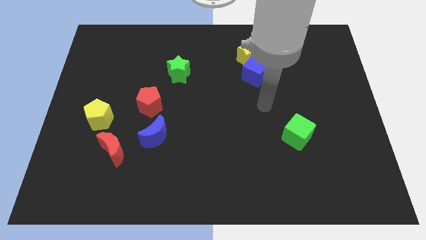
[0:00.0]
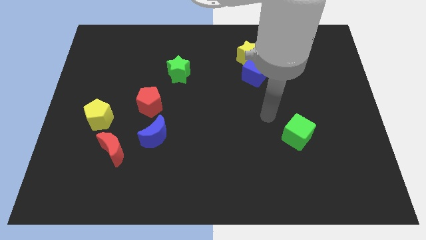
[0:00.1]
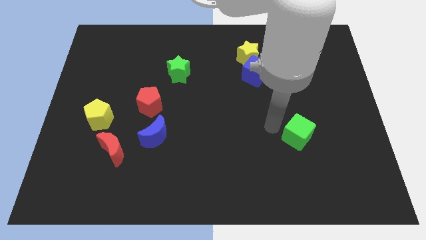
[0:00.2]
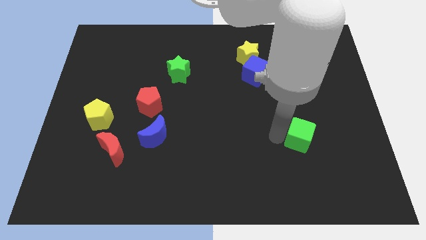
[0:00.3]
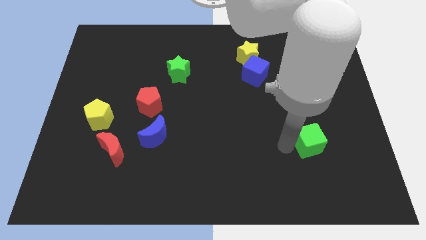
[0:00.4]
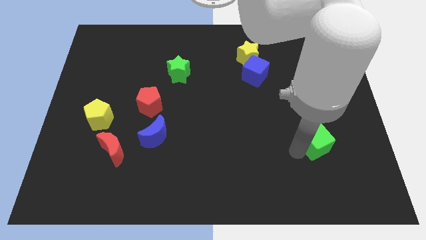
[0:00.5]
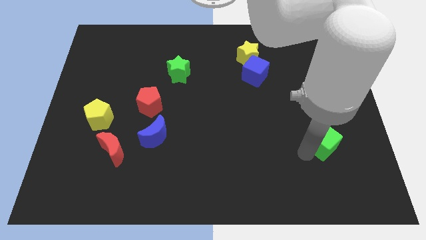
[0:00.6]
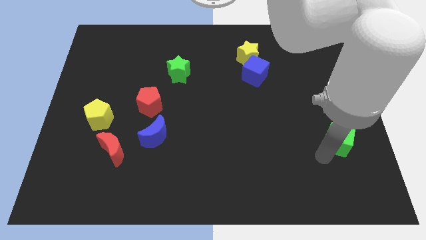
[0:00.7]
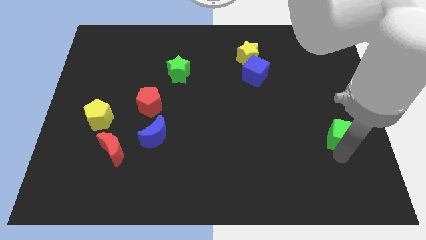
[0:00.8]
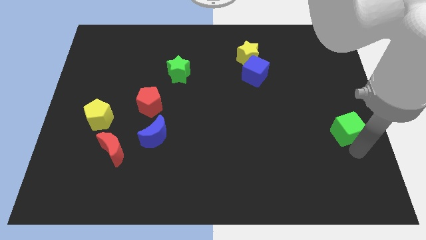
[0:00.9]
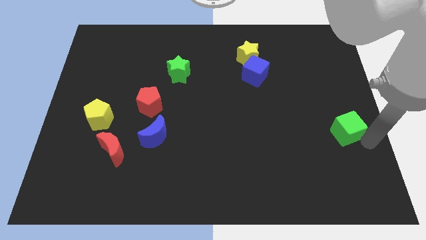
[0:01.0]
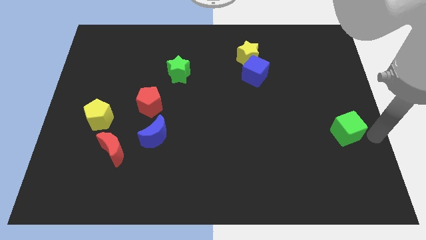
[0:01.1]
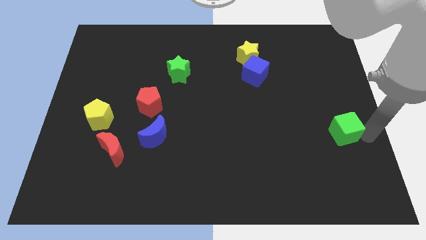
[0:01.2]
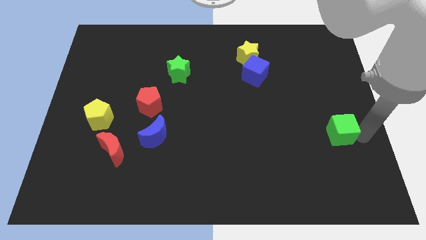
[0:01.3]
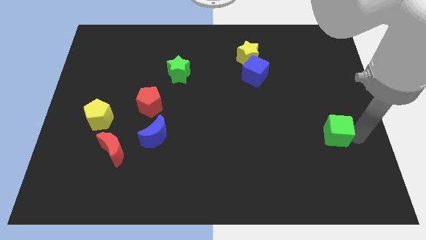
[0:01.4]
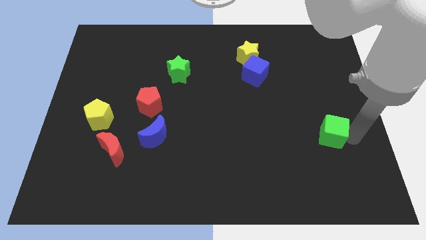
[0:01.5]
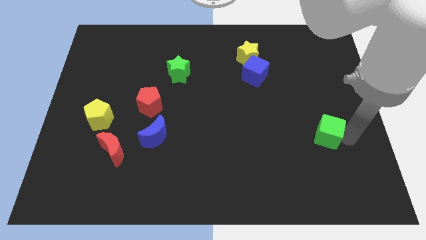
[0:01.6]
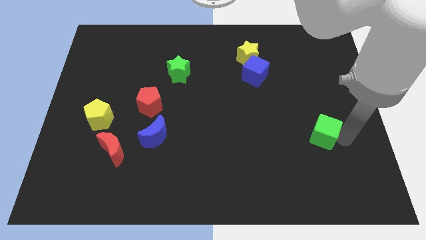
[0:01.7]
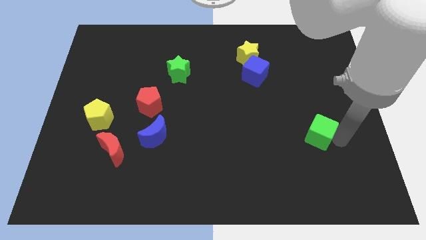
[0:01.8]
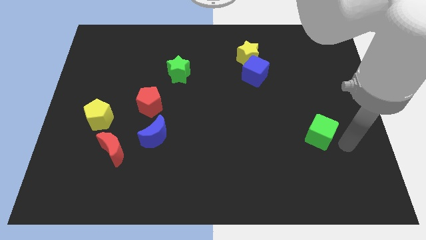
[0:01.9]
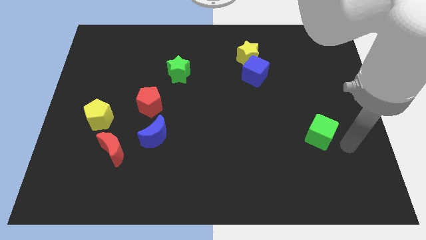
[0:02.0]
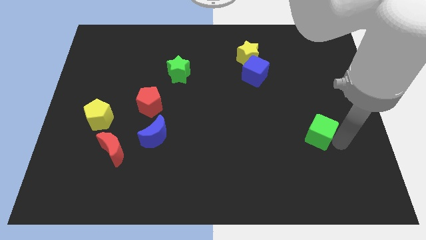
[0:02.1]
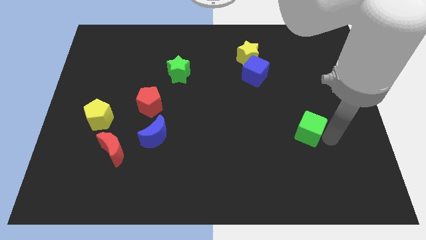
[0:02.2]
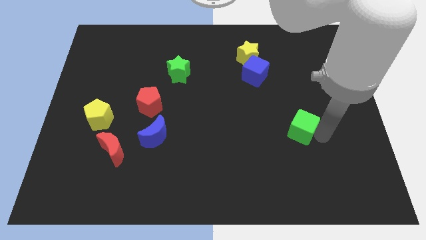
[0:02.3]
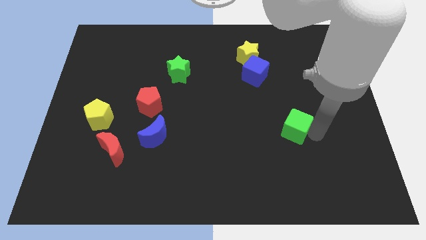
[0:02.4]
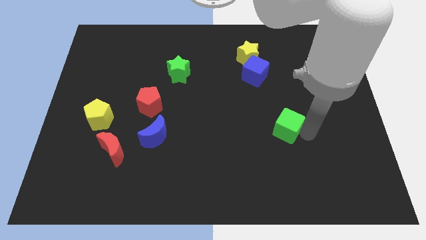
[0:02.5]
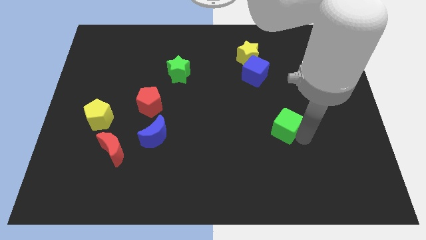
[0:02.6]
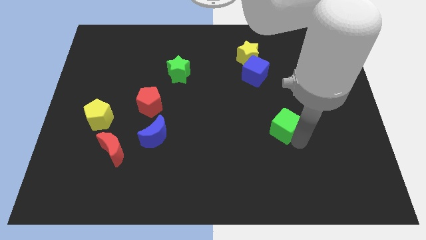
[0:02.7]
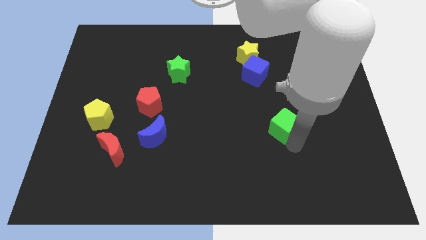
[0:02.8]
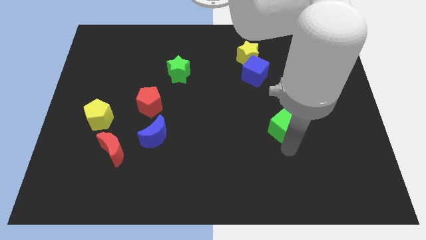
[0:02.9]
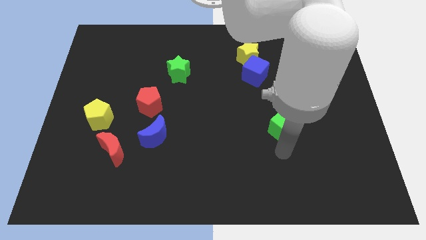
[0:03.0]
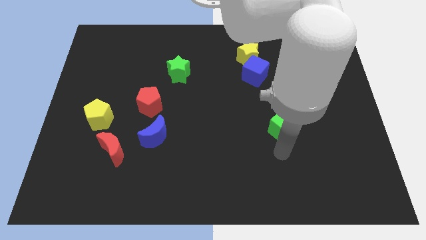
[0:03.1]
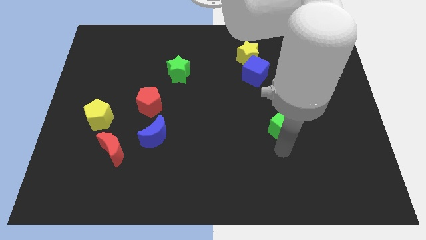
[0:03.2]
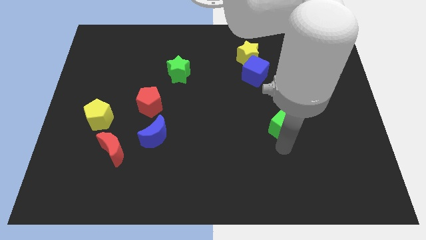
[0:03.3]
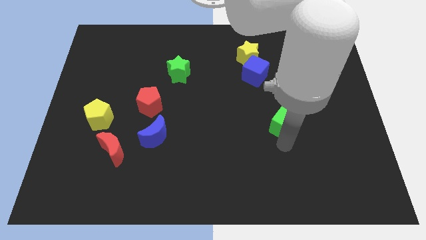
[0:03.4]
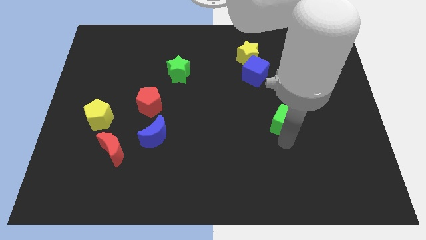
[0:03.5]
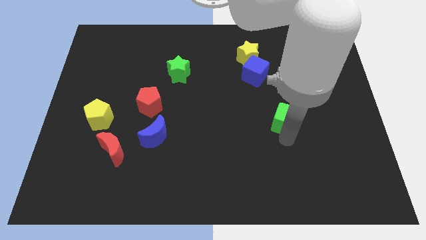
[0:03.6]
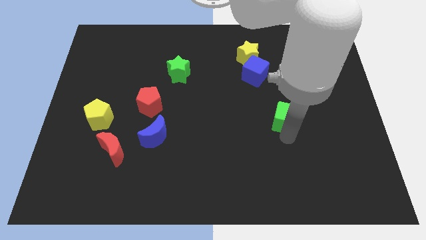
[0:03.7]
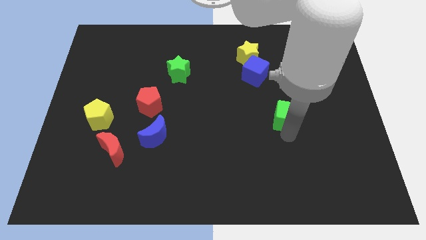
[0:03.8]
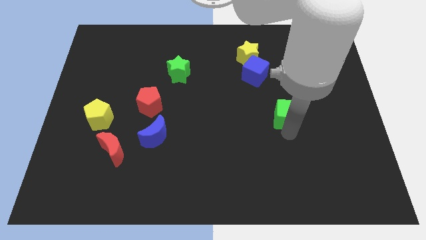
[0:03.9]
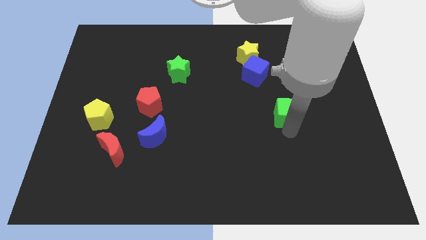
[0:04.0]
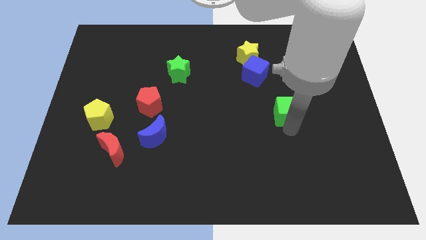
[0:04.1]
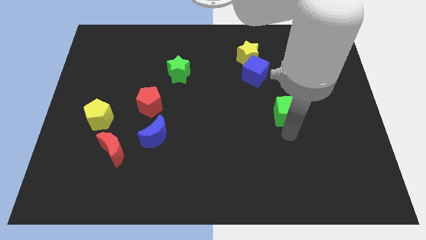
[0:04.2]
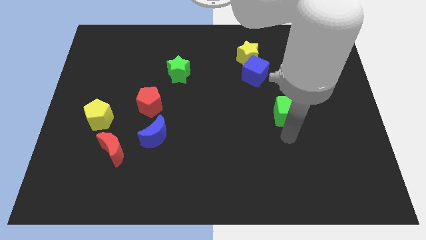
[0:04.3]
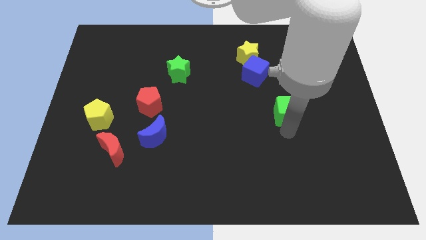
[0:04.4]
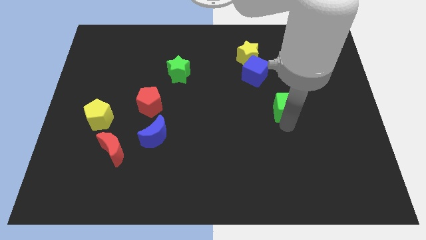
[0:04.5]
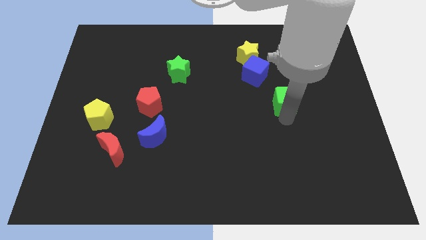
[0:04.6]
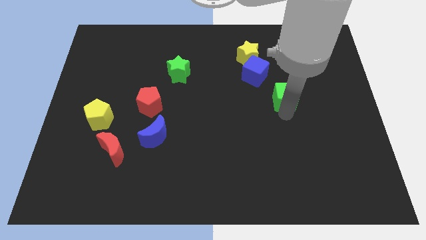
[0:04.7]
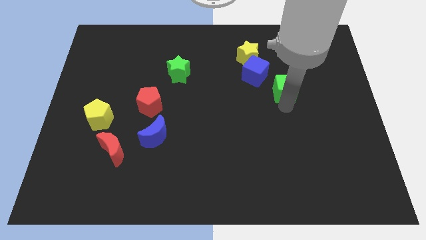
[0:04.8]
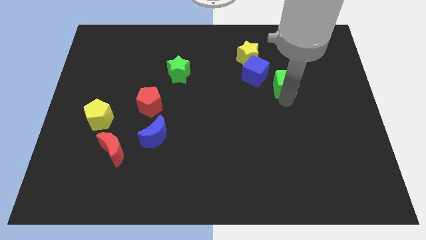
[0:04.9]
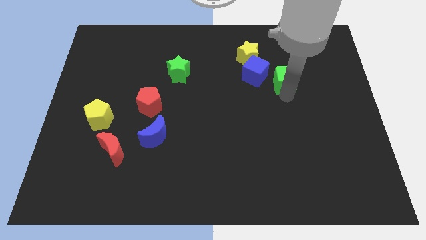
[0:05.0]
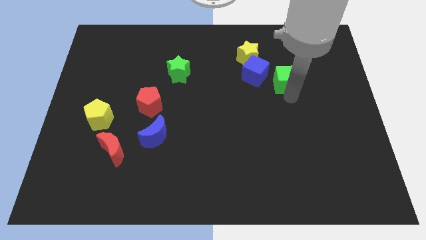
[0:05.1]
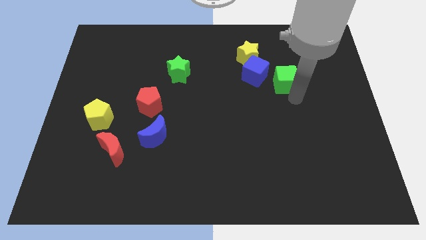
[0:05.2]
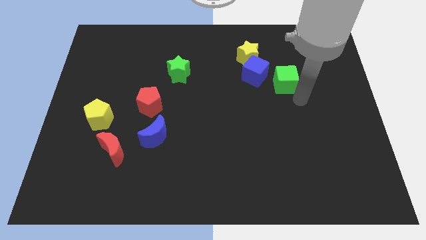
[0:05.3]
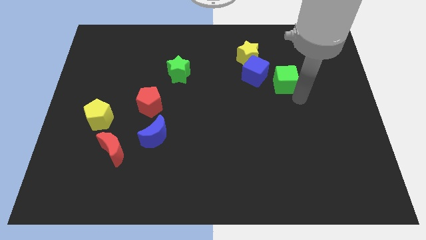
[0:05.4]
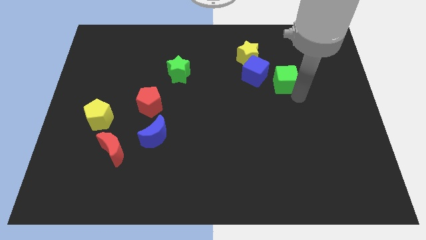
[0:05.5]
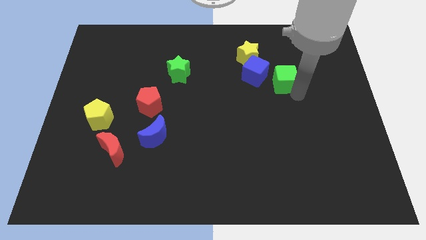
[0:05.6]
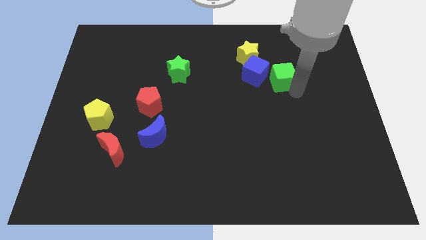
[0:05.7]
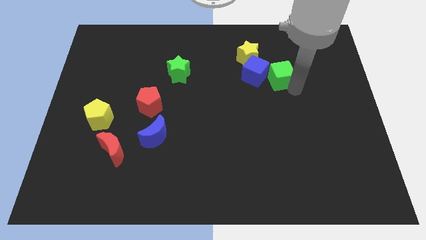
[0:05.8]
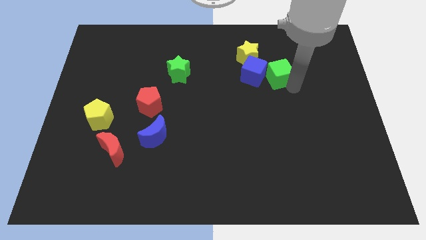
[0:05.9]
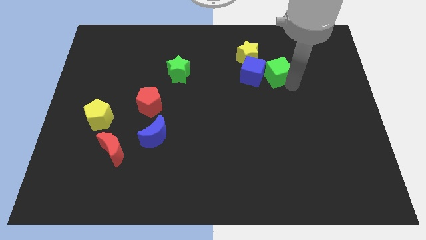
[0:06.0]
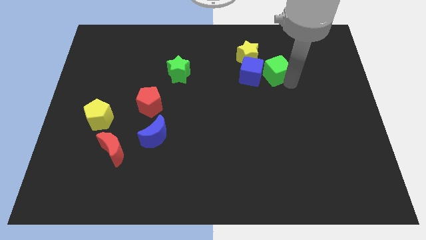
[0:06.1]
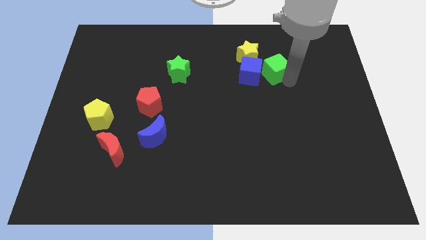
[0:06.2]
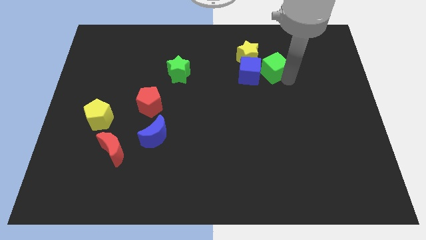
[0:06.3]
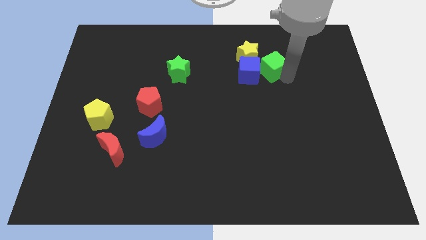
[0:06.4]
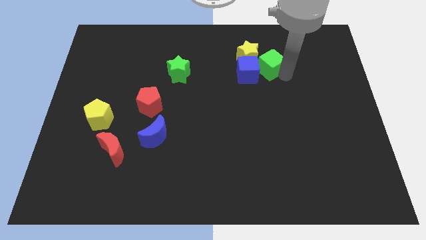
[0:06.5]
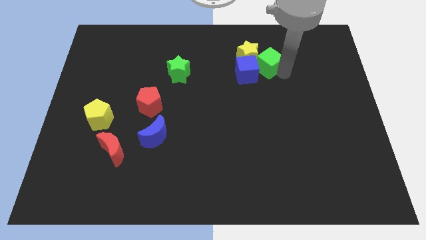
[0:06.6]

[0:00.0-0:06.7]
slide the green cube to the yellow star

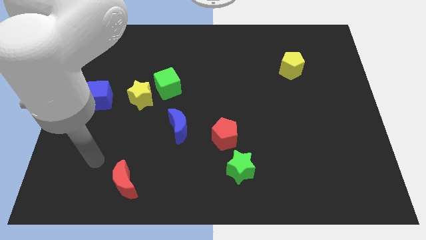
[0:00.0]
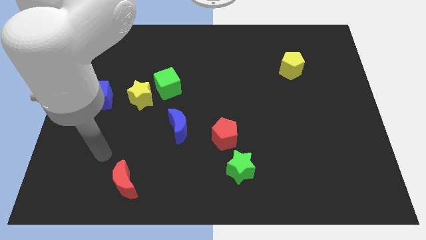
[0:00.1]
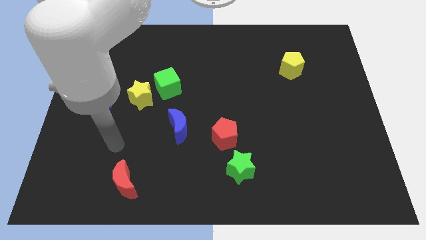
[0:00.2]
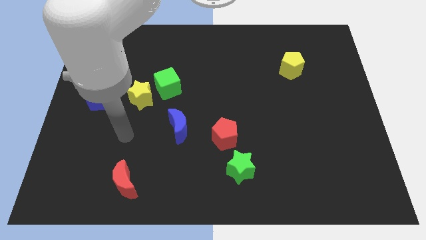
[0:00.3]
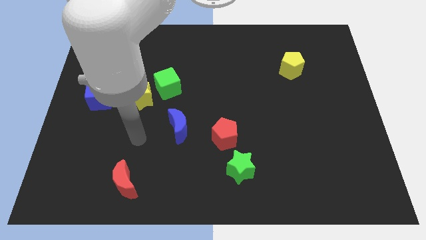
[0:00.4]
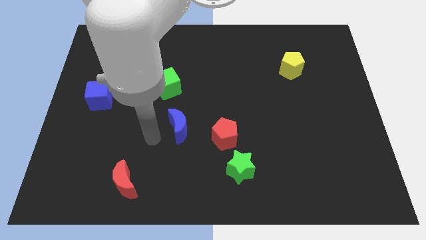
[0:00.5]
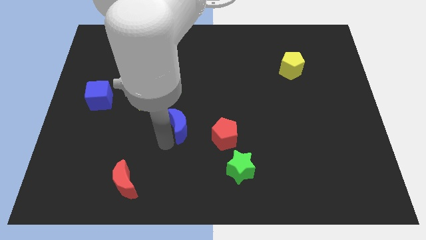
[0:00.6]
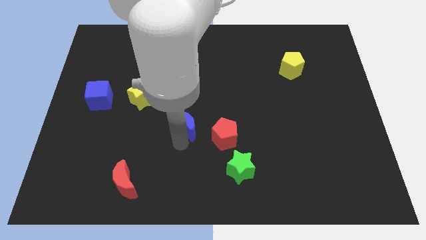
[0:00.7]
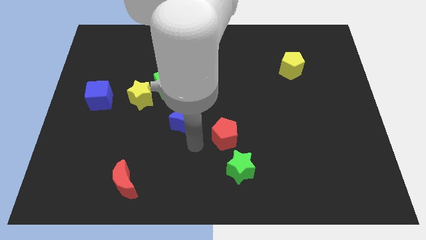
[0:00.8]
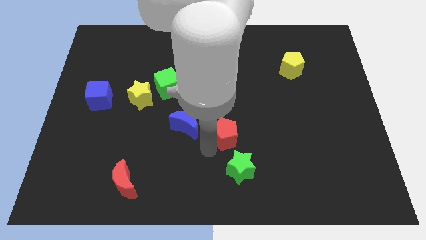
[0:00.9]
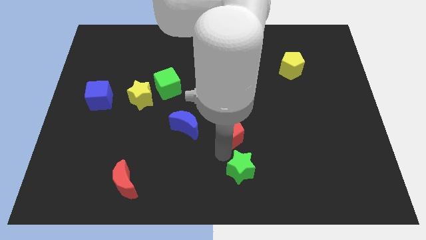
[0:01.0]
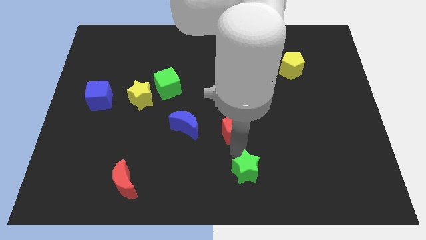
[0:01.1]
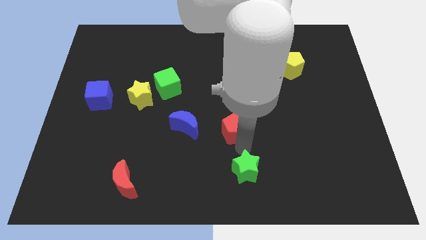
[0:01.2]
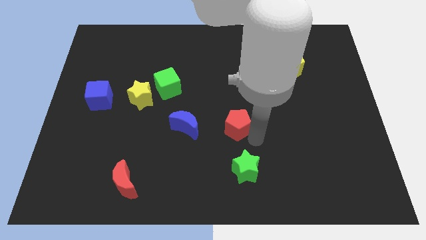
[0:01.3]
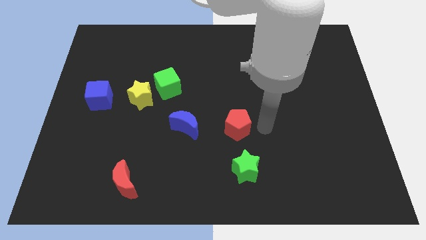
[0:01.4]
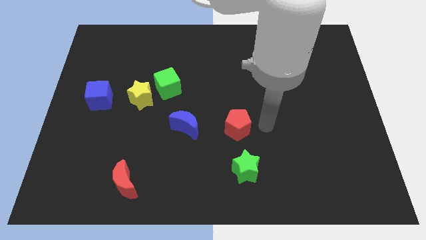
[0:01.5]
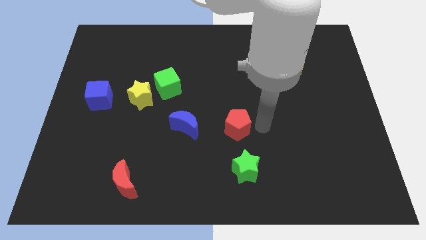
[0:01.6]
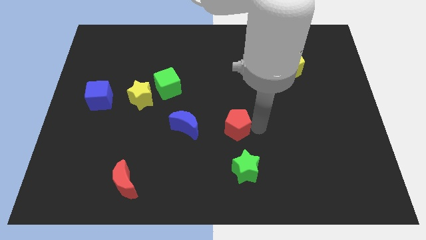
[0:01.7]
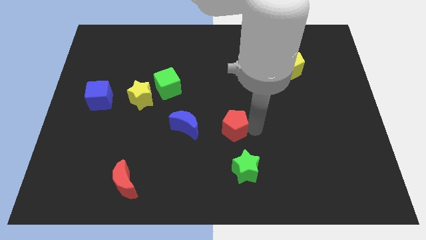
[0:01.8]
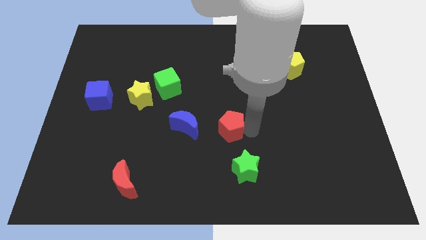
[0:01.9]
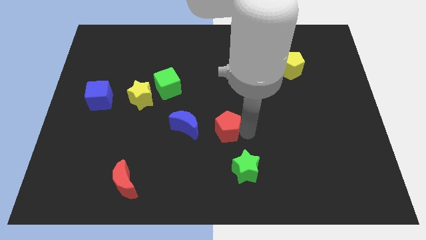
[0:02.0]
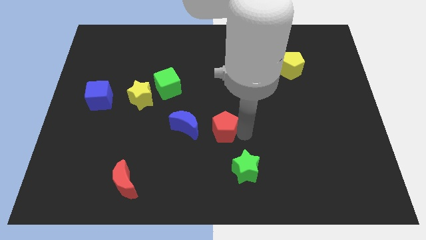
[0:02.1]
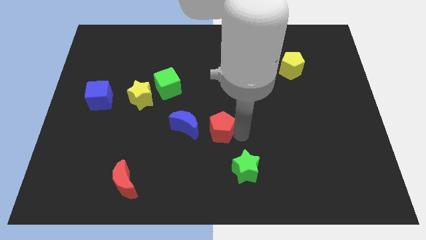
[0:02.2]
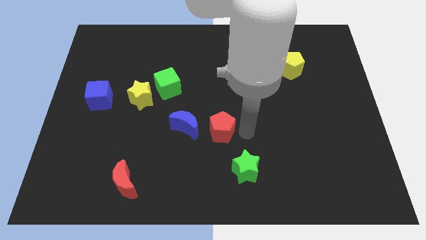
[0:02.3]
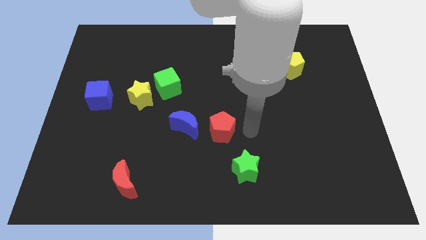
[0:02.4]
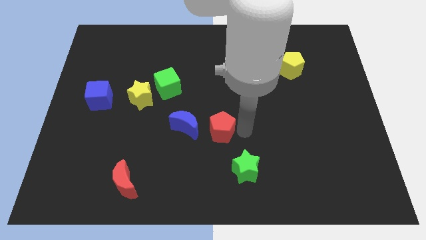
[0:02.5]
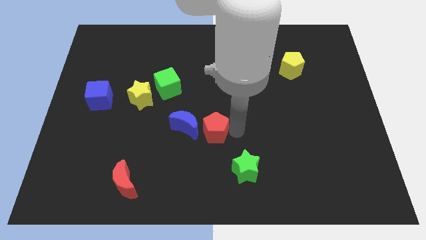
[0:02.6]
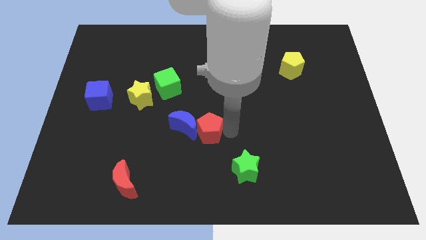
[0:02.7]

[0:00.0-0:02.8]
push the red pentagon close to the blue moon
